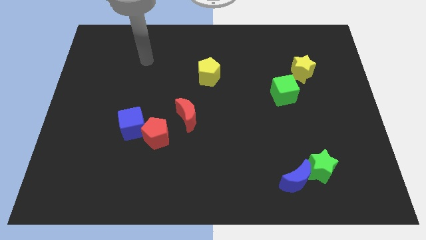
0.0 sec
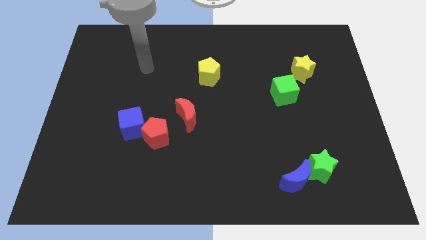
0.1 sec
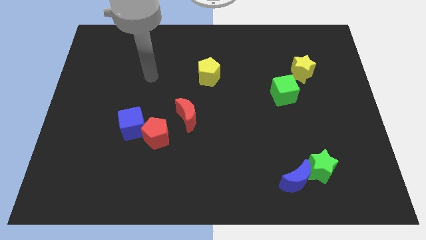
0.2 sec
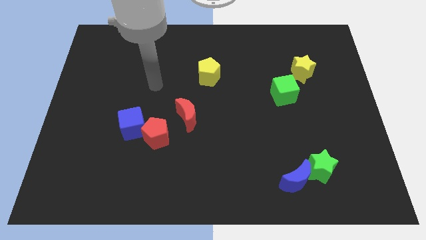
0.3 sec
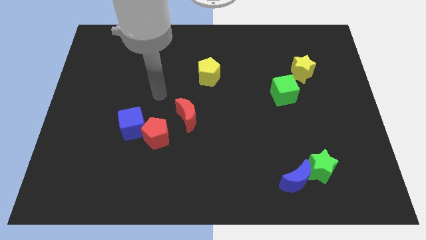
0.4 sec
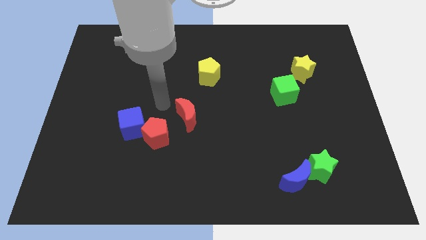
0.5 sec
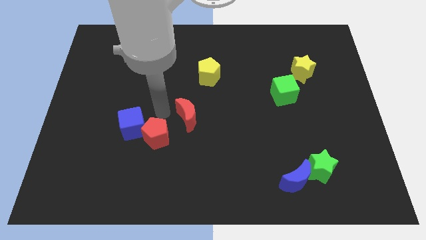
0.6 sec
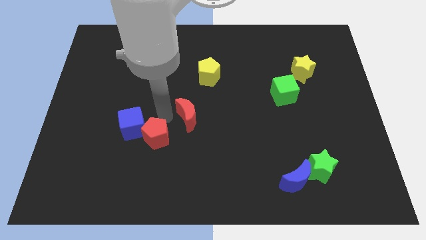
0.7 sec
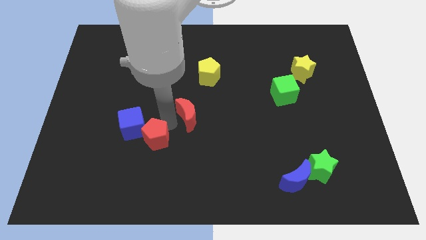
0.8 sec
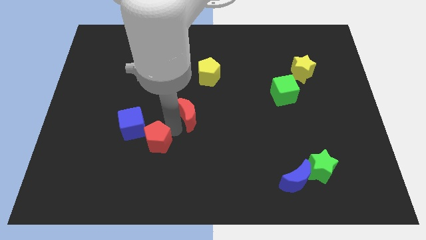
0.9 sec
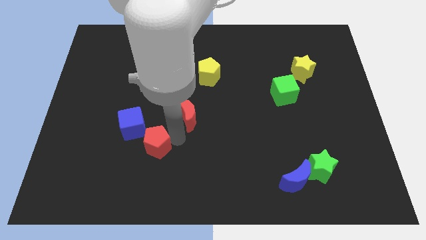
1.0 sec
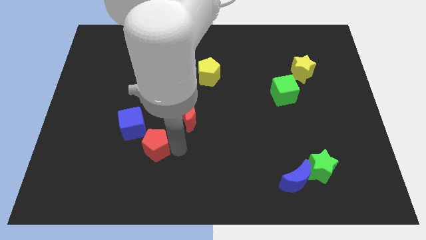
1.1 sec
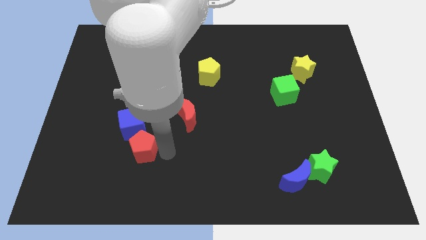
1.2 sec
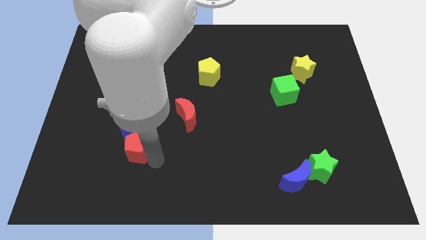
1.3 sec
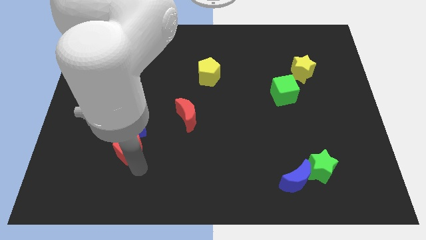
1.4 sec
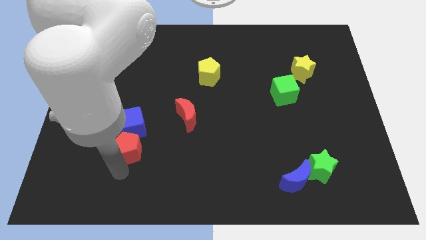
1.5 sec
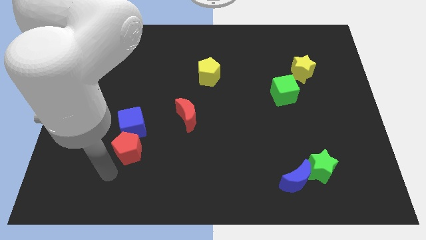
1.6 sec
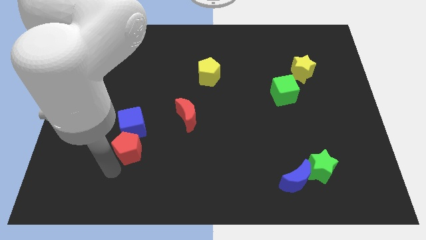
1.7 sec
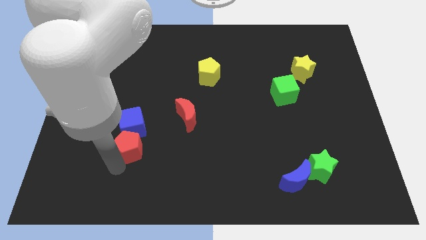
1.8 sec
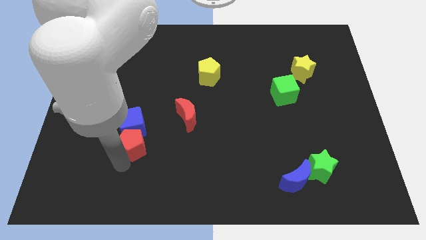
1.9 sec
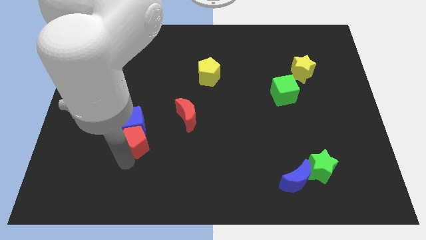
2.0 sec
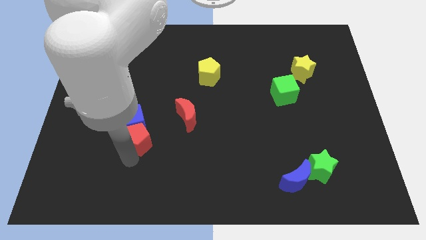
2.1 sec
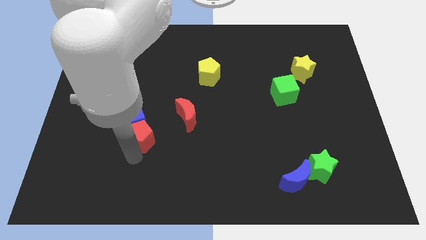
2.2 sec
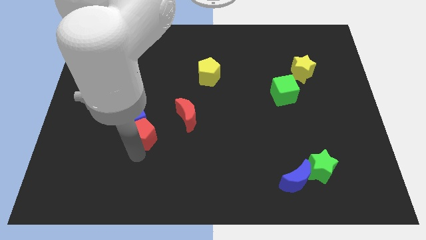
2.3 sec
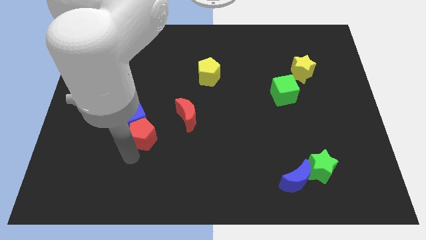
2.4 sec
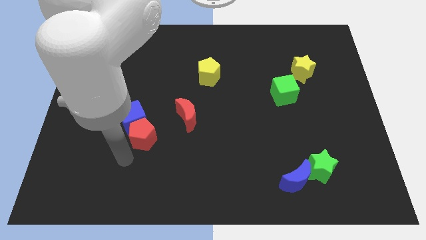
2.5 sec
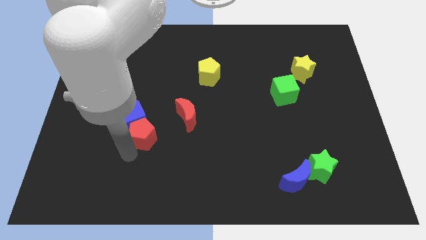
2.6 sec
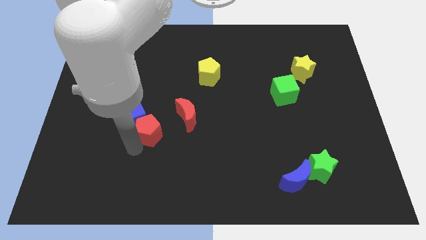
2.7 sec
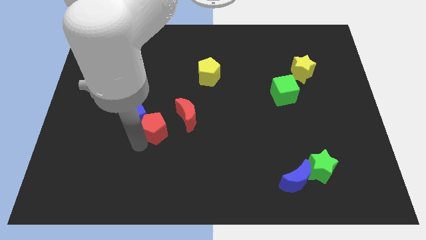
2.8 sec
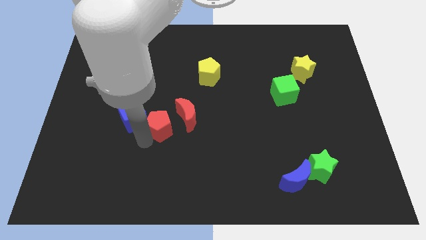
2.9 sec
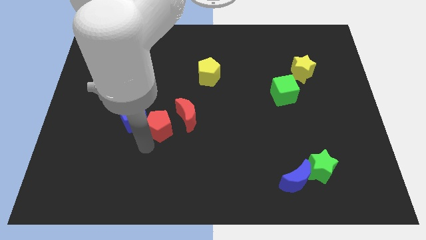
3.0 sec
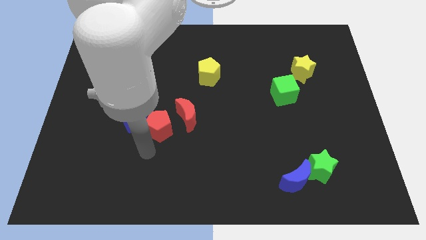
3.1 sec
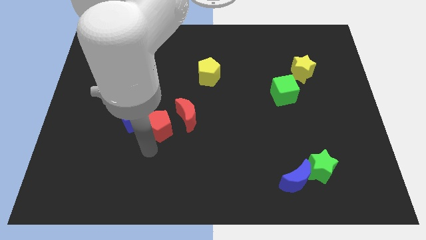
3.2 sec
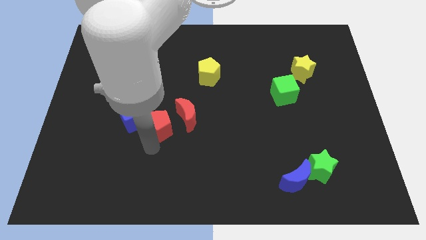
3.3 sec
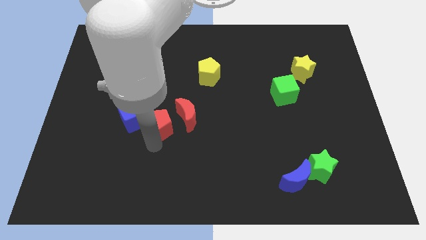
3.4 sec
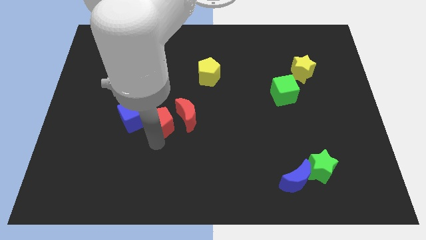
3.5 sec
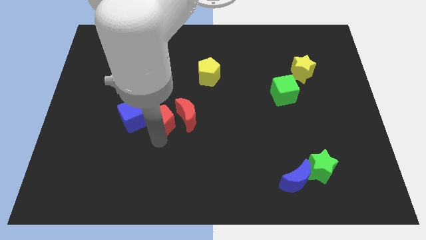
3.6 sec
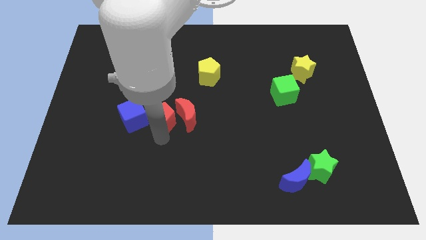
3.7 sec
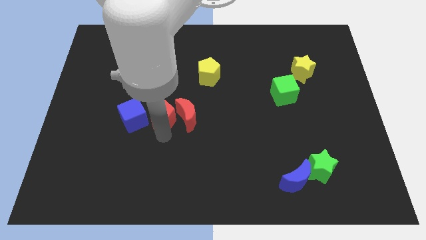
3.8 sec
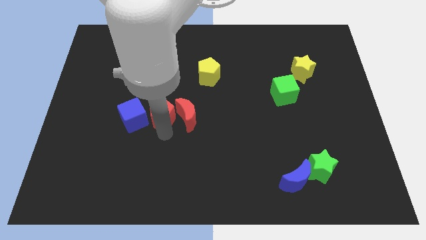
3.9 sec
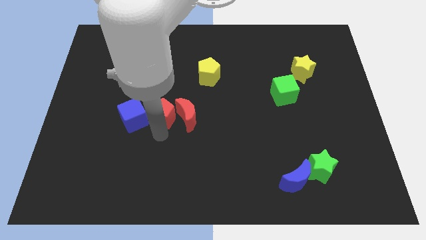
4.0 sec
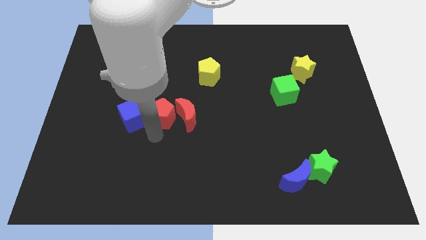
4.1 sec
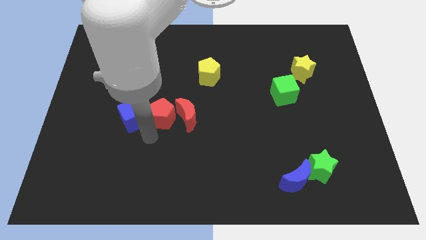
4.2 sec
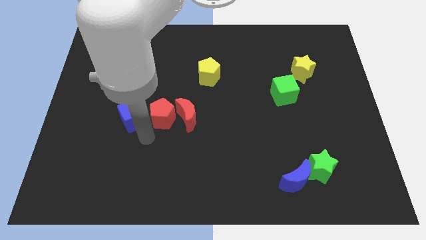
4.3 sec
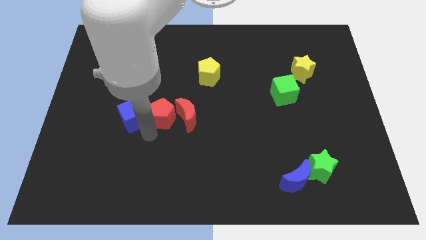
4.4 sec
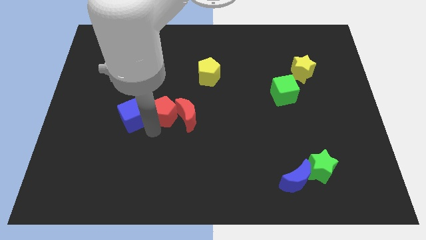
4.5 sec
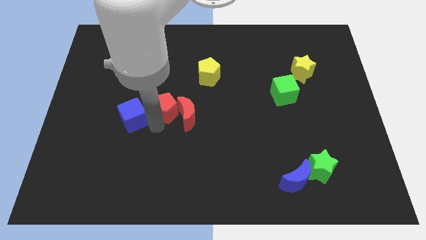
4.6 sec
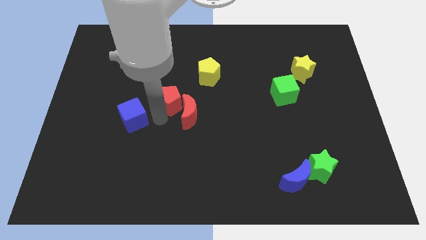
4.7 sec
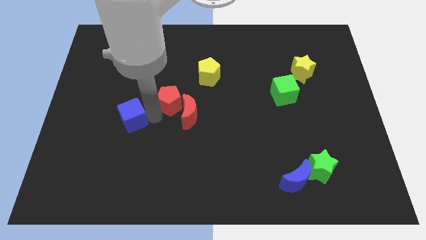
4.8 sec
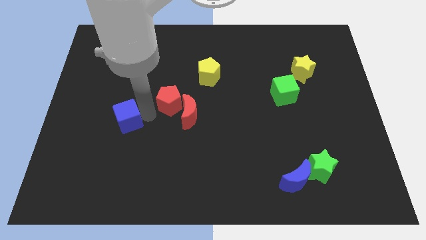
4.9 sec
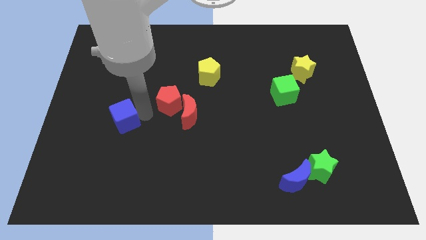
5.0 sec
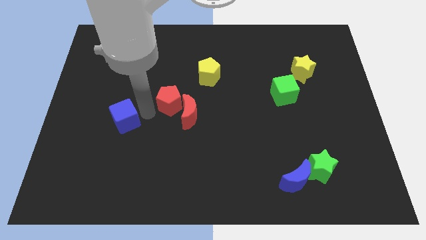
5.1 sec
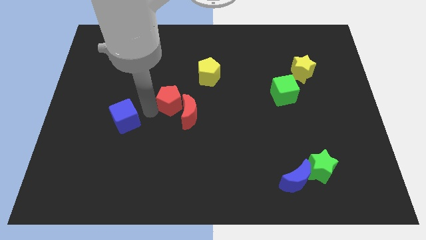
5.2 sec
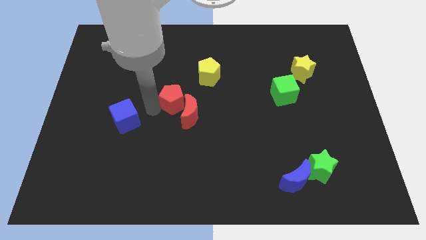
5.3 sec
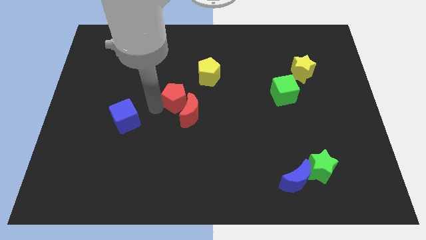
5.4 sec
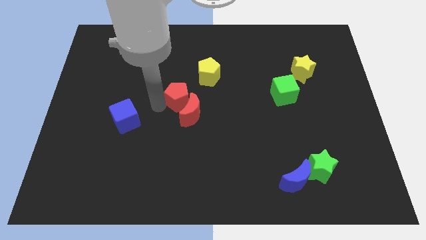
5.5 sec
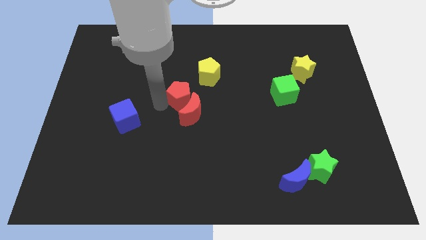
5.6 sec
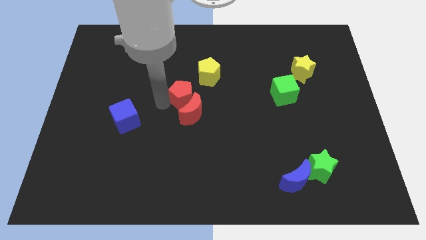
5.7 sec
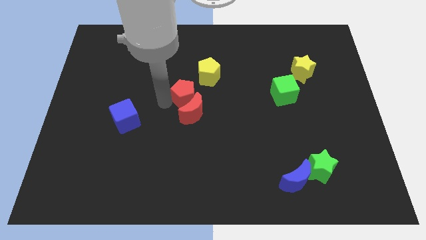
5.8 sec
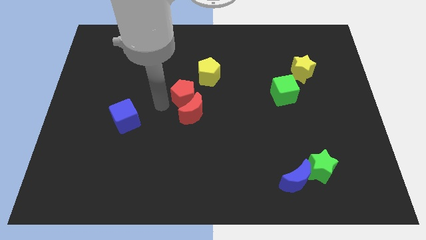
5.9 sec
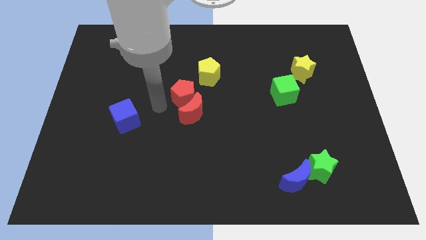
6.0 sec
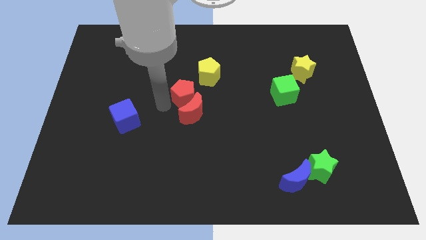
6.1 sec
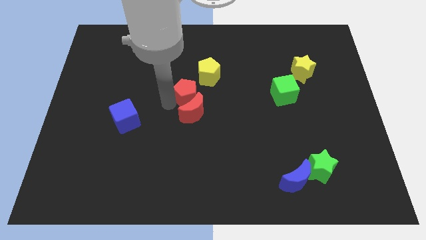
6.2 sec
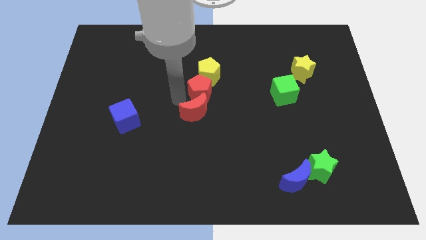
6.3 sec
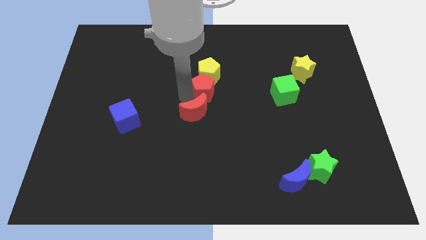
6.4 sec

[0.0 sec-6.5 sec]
move the red pentagon to the bottom right side of the yellow pentagon

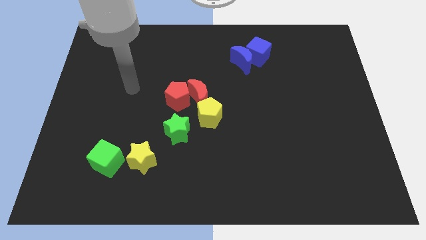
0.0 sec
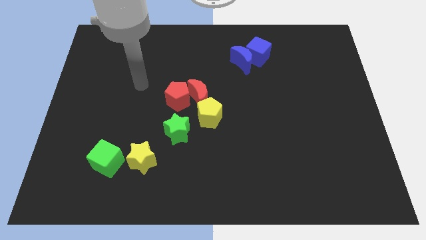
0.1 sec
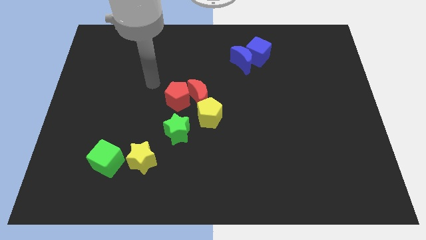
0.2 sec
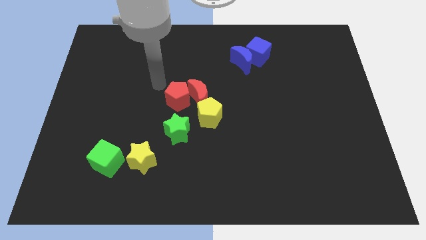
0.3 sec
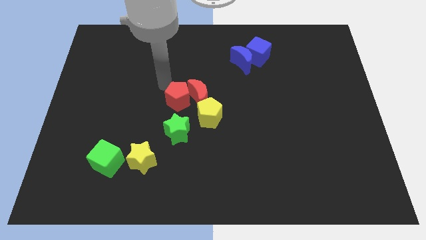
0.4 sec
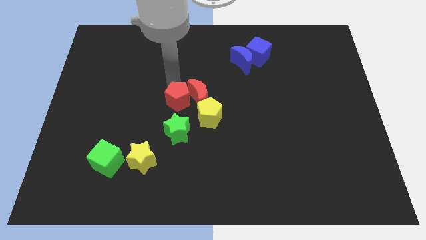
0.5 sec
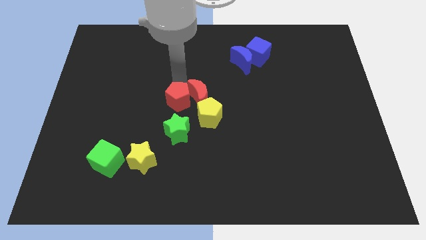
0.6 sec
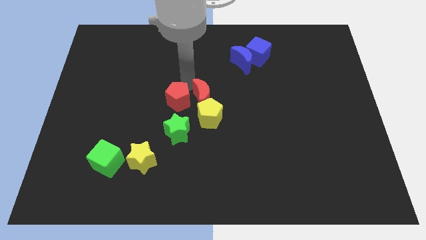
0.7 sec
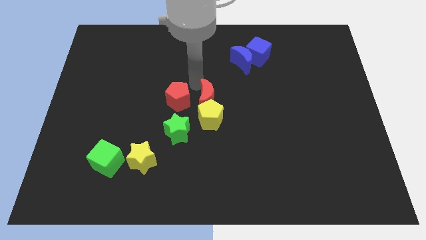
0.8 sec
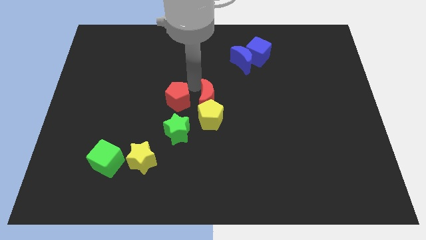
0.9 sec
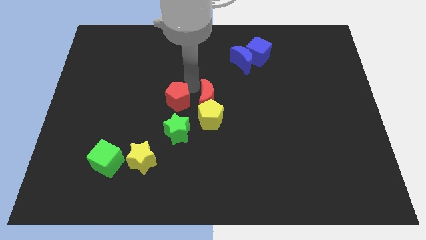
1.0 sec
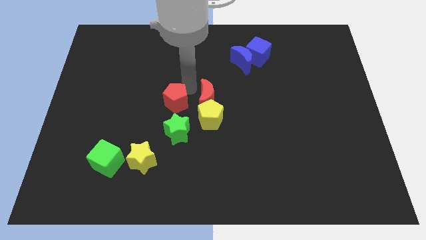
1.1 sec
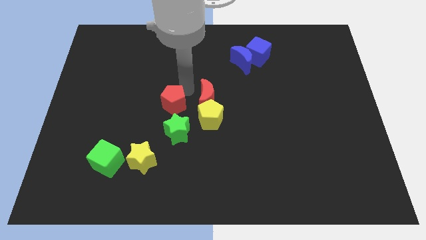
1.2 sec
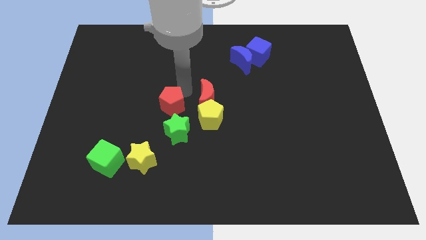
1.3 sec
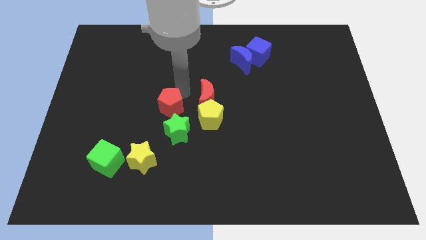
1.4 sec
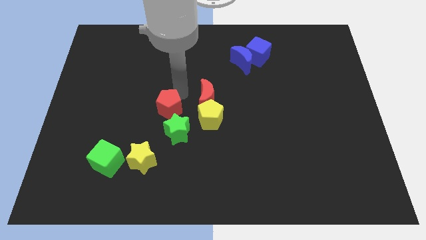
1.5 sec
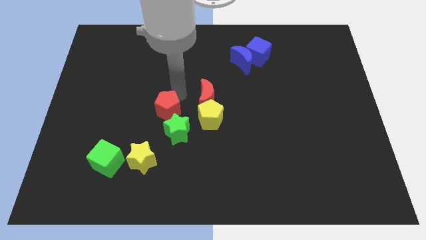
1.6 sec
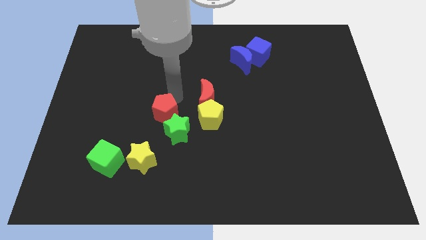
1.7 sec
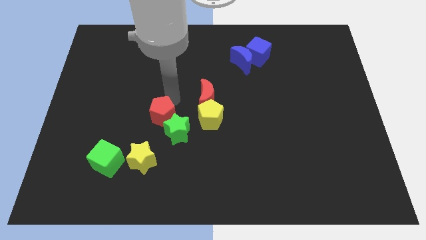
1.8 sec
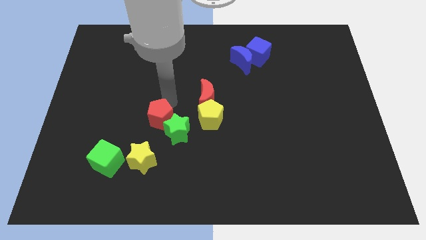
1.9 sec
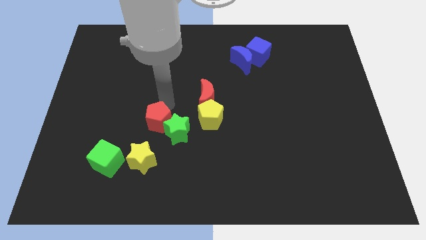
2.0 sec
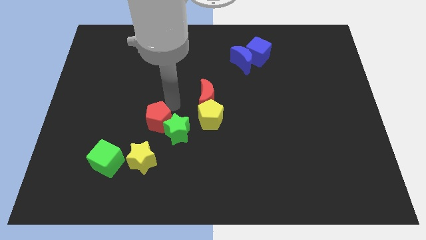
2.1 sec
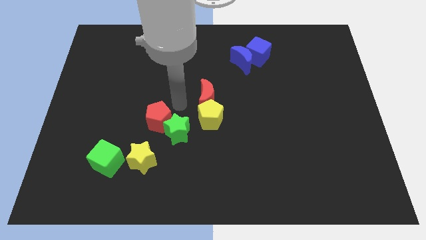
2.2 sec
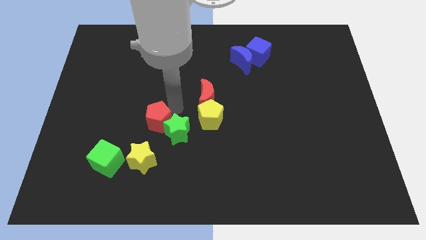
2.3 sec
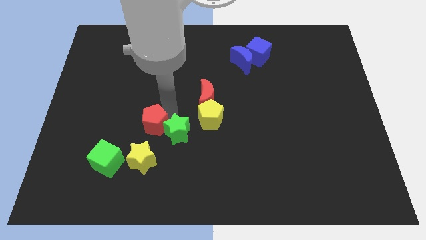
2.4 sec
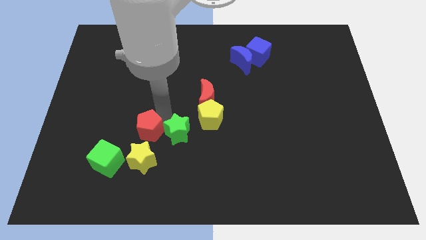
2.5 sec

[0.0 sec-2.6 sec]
put the red pentagon diagonally up and to the right of the green cube
